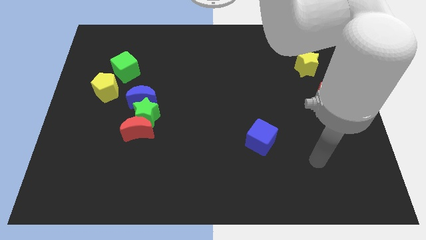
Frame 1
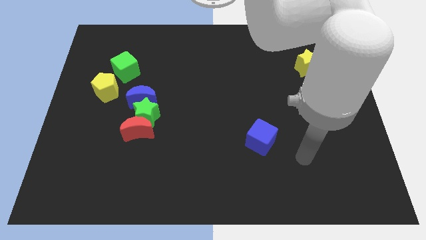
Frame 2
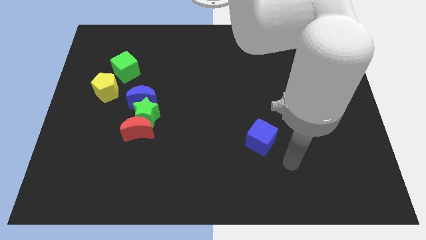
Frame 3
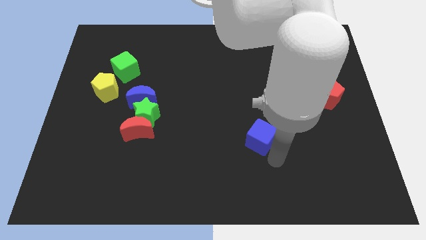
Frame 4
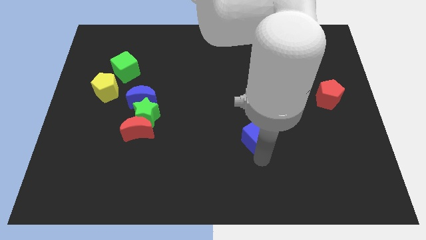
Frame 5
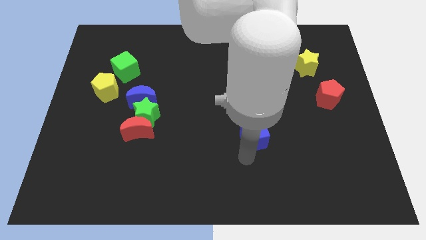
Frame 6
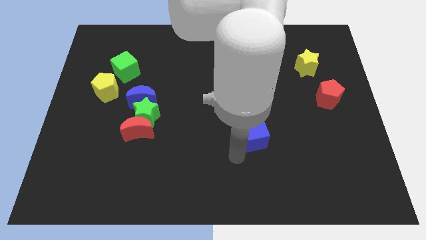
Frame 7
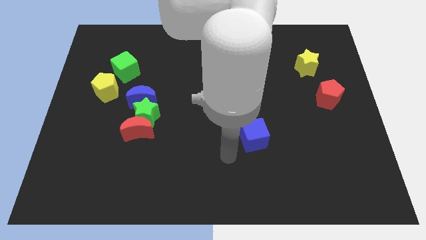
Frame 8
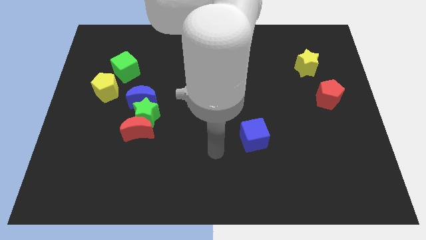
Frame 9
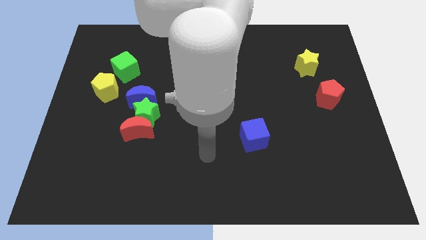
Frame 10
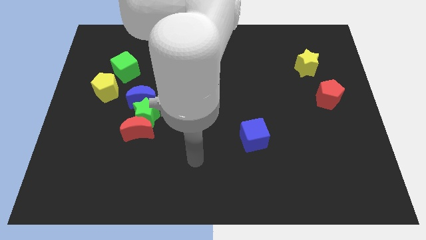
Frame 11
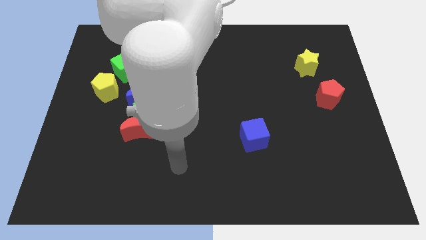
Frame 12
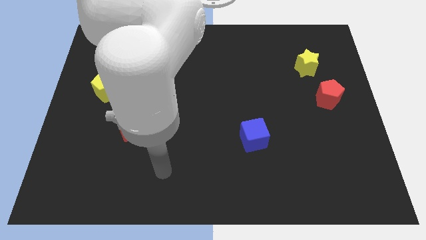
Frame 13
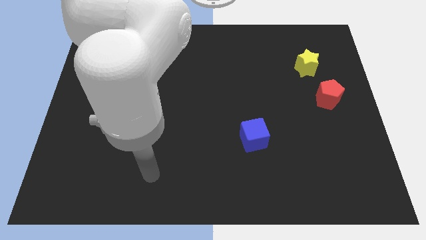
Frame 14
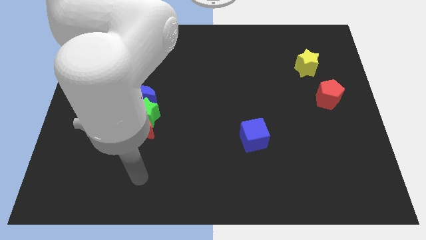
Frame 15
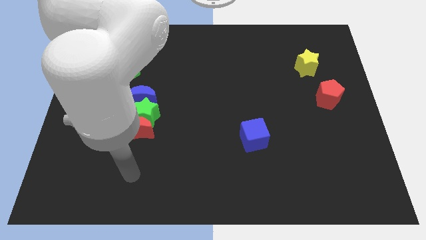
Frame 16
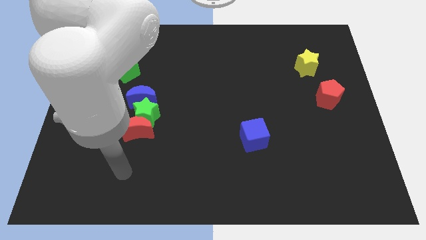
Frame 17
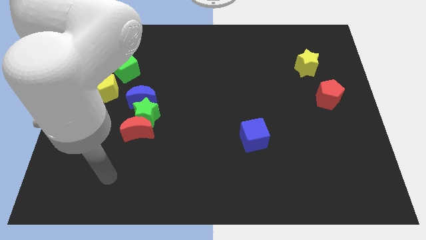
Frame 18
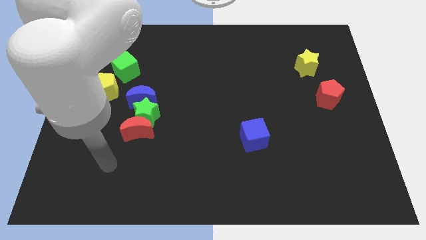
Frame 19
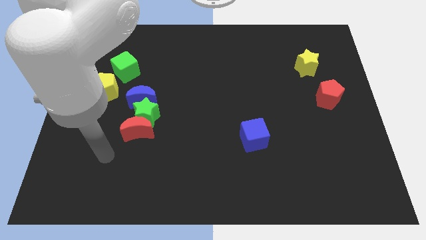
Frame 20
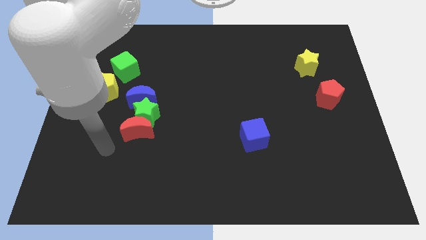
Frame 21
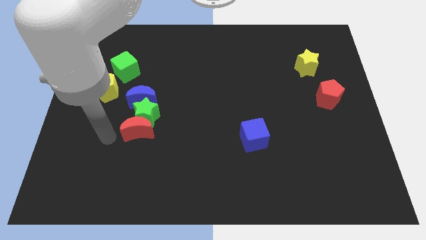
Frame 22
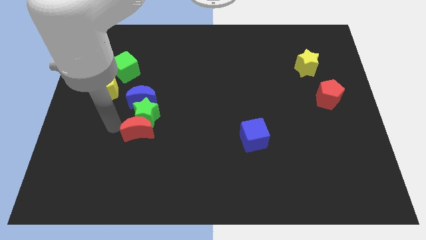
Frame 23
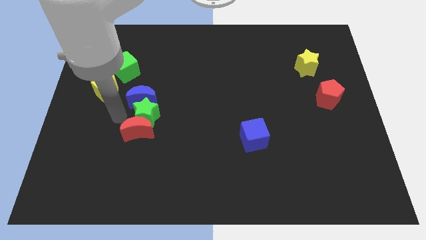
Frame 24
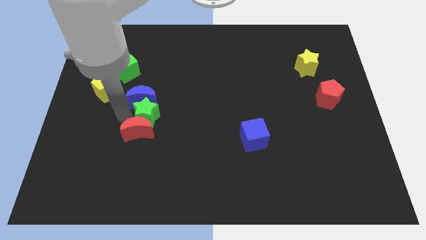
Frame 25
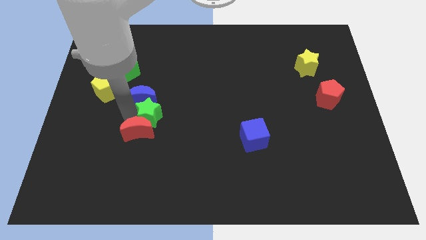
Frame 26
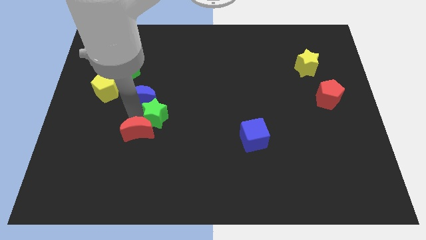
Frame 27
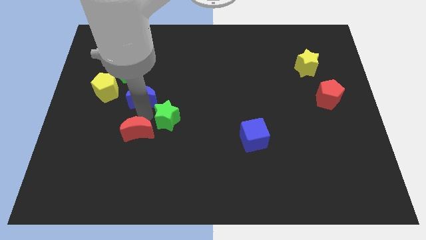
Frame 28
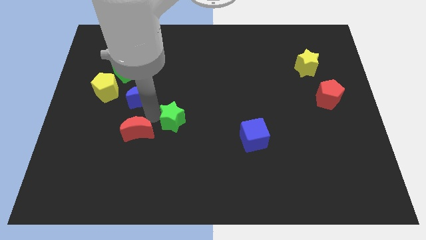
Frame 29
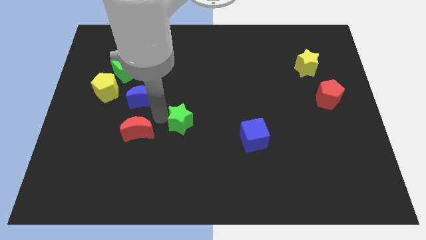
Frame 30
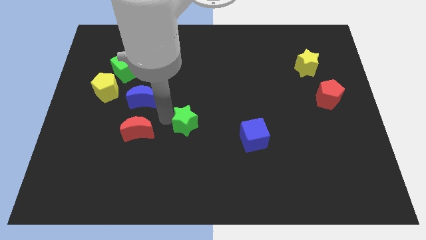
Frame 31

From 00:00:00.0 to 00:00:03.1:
move the green star away from the red moon and blue moon

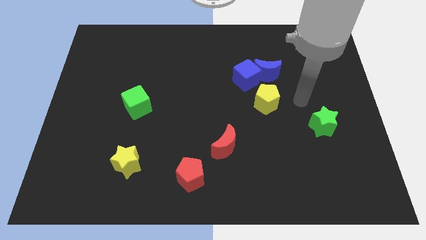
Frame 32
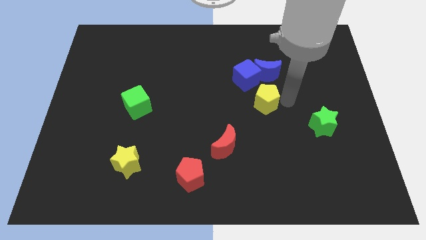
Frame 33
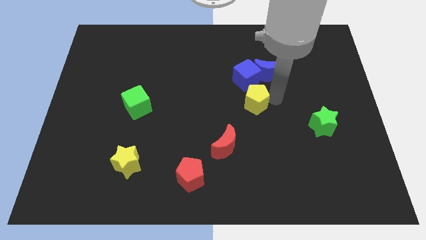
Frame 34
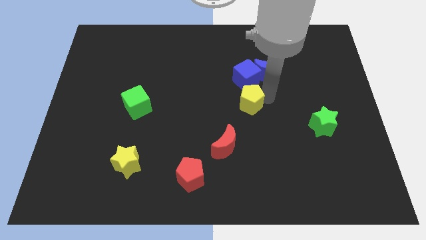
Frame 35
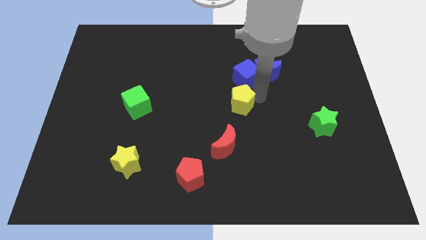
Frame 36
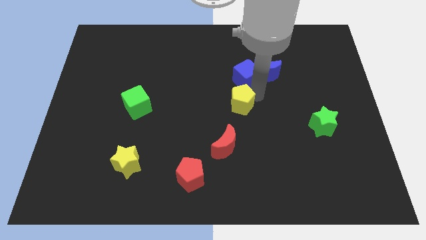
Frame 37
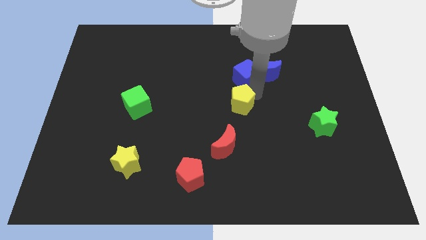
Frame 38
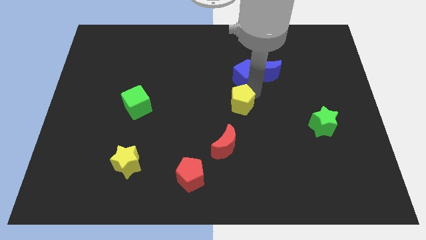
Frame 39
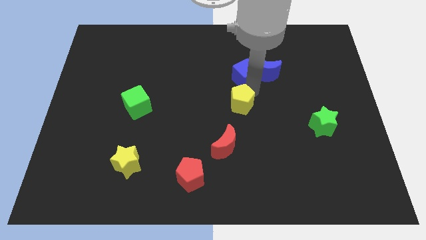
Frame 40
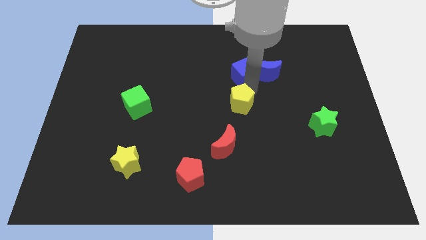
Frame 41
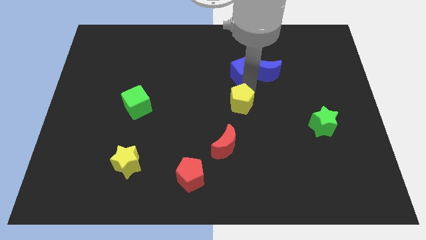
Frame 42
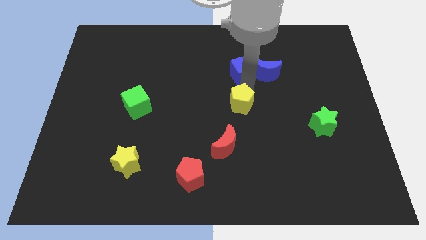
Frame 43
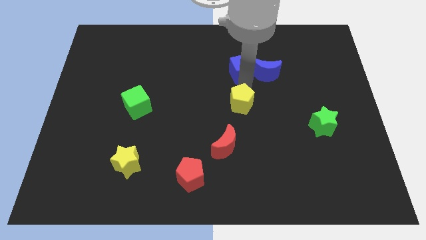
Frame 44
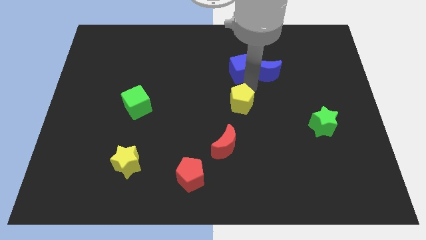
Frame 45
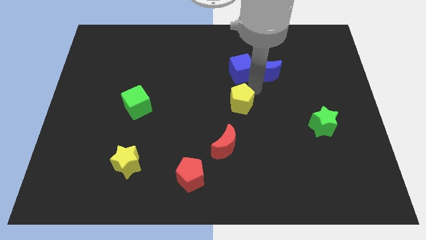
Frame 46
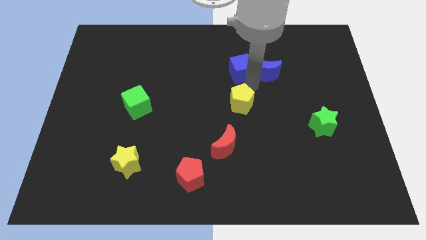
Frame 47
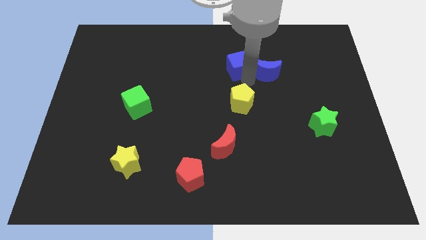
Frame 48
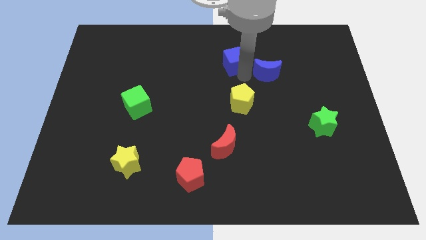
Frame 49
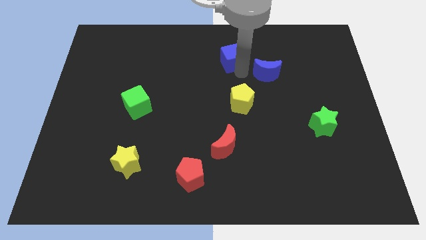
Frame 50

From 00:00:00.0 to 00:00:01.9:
pull the blue cube apart from the blue moon and yellow pentagon

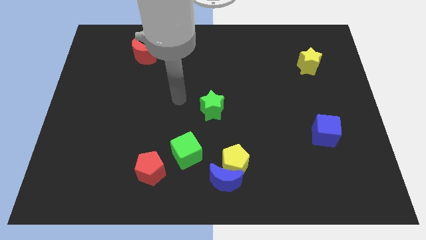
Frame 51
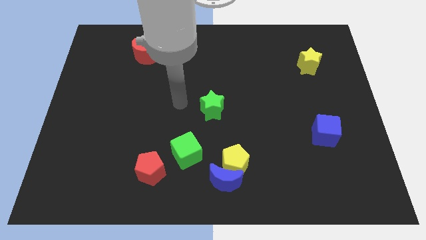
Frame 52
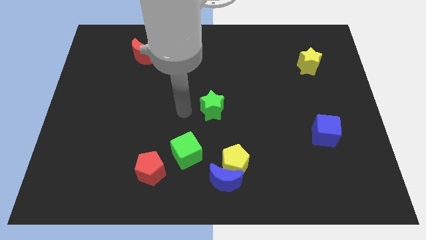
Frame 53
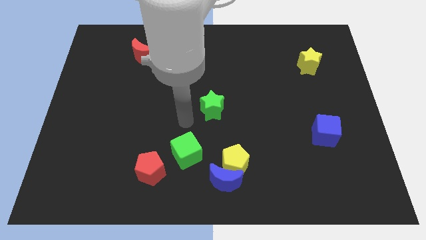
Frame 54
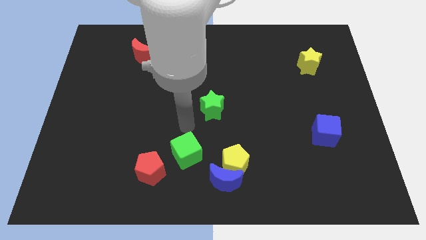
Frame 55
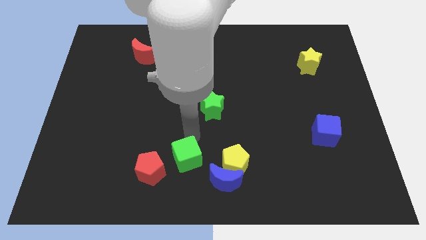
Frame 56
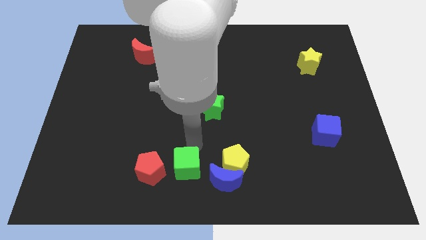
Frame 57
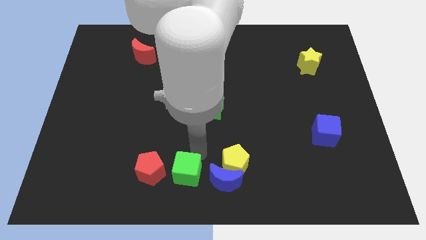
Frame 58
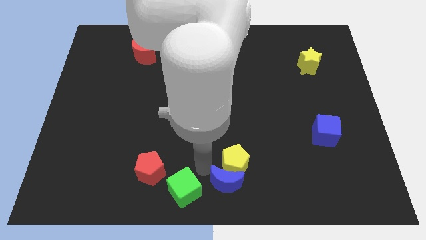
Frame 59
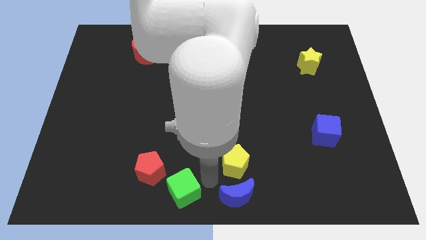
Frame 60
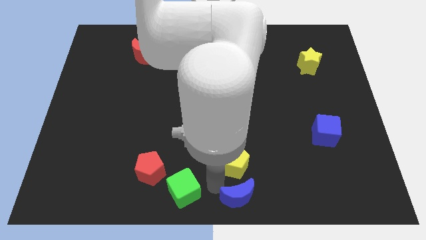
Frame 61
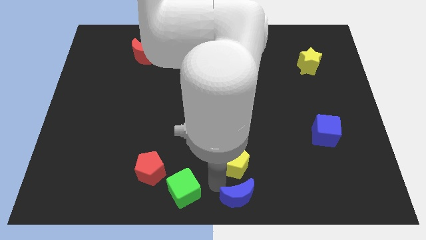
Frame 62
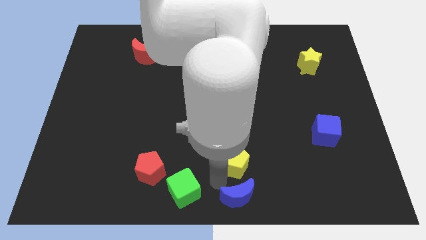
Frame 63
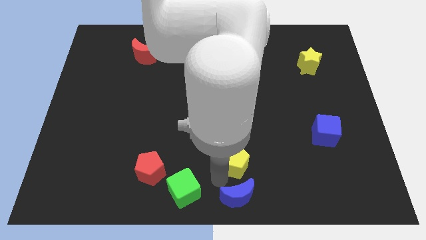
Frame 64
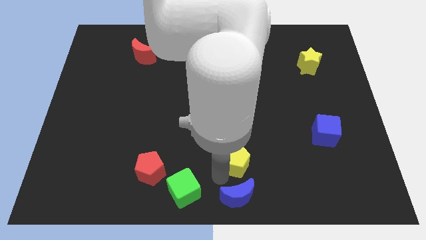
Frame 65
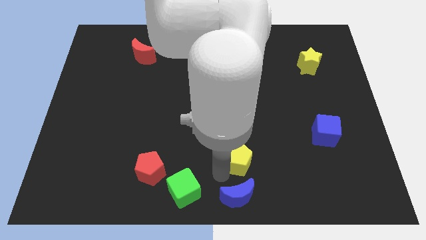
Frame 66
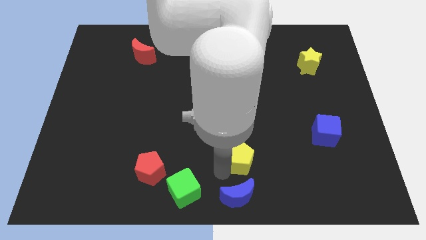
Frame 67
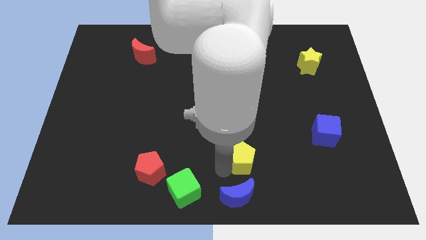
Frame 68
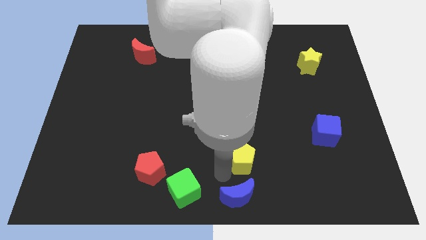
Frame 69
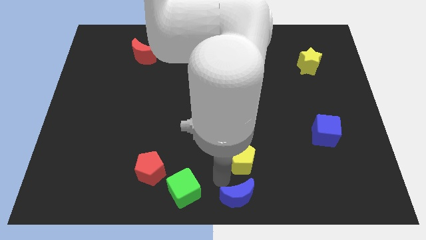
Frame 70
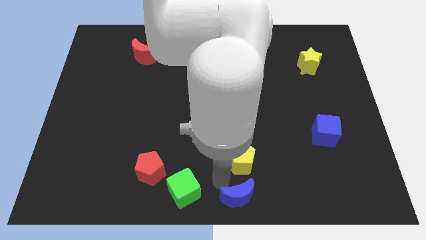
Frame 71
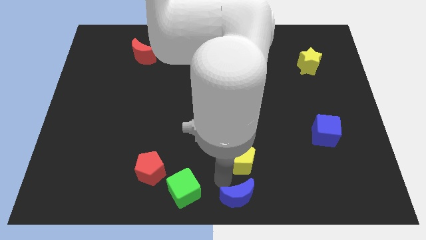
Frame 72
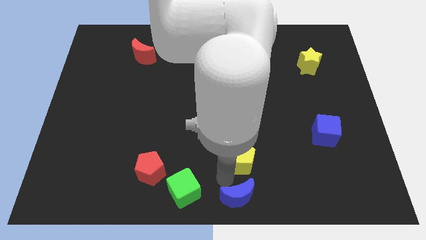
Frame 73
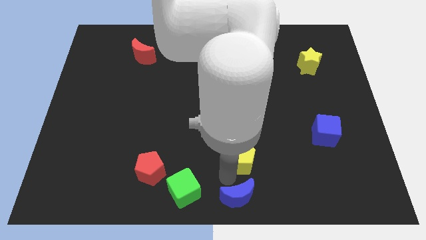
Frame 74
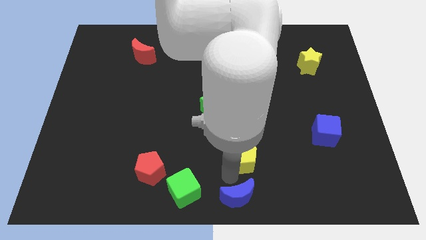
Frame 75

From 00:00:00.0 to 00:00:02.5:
move the yellow pentagon away from the blue moon and green cube

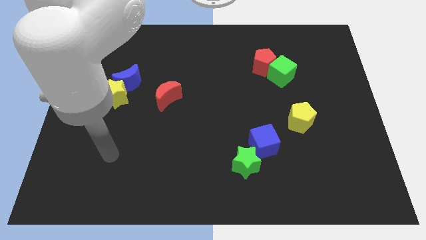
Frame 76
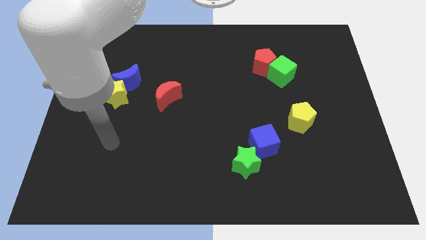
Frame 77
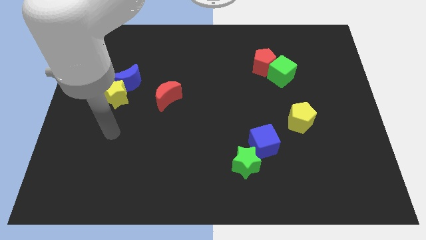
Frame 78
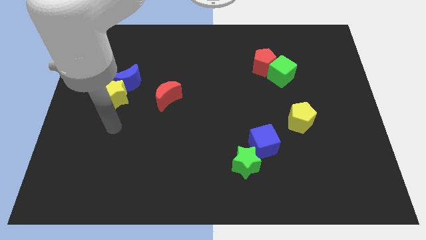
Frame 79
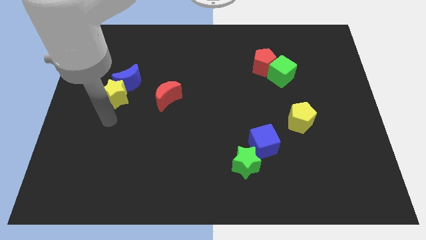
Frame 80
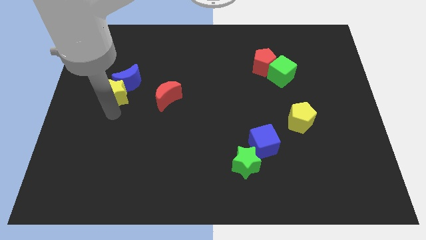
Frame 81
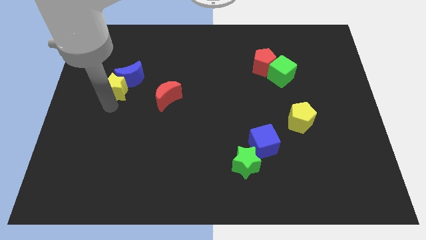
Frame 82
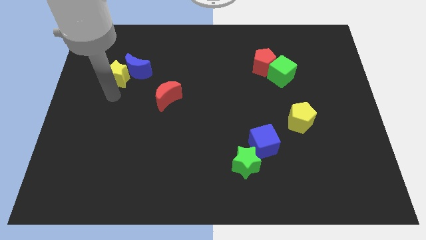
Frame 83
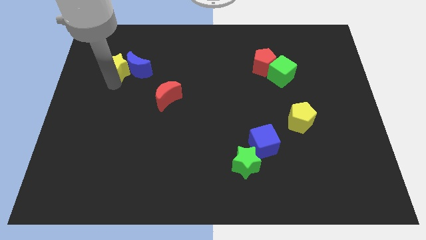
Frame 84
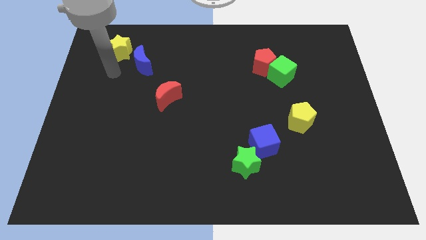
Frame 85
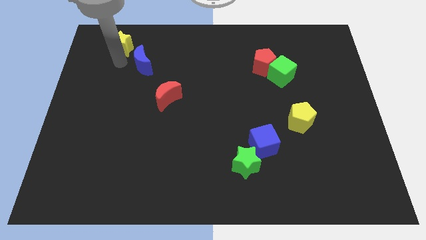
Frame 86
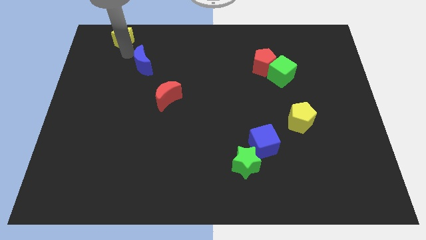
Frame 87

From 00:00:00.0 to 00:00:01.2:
separate the blue moon from the yellow star

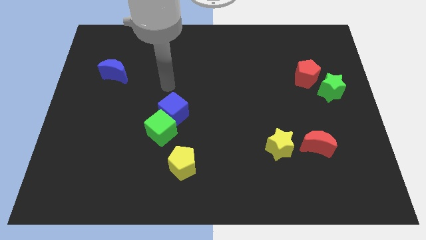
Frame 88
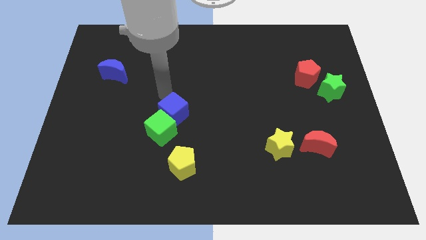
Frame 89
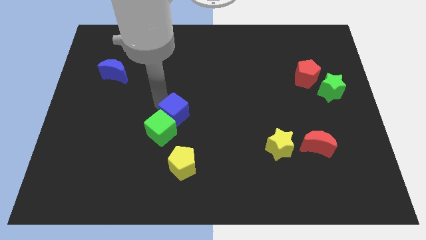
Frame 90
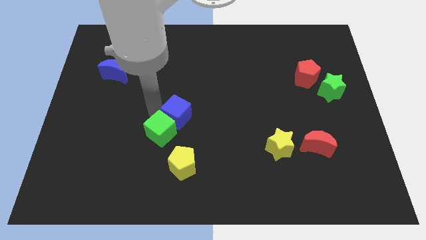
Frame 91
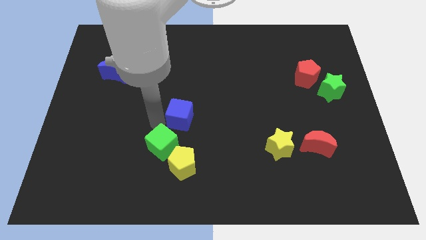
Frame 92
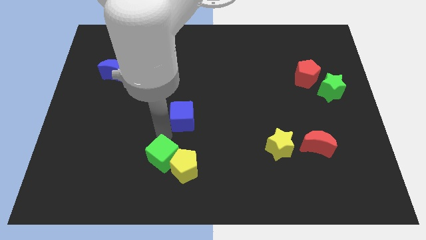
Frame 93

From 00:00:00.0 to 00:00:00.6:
separate the blue cube from the green cube
